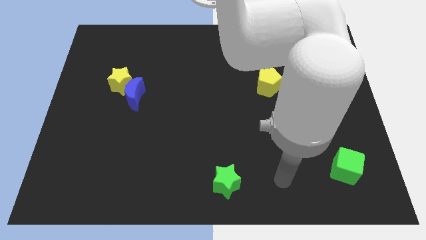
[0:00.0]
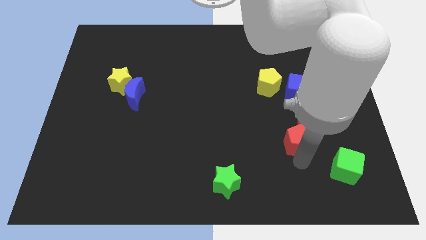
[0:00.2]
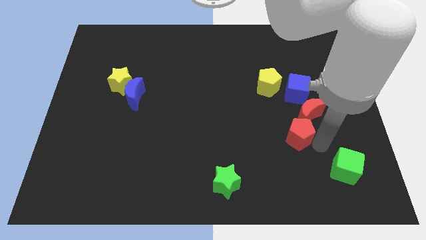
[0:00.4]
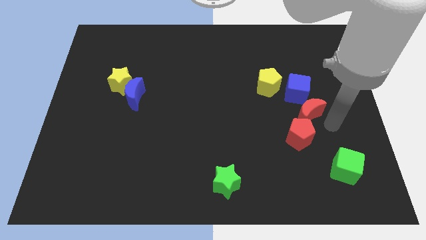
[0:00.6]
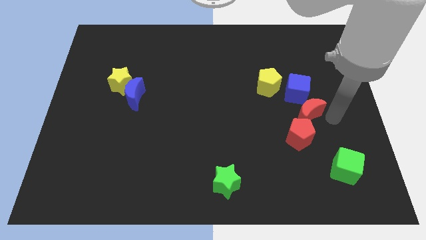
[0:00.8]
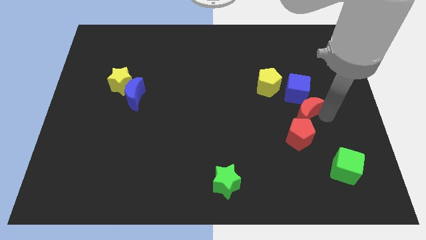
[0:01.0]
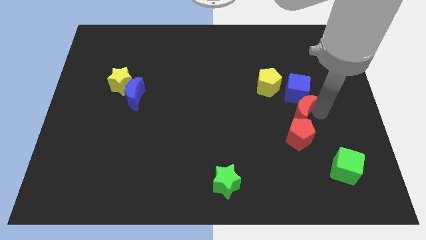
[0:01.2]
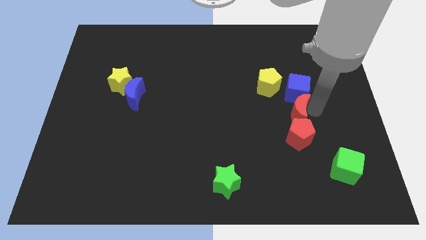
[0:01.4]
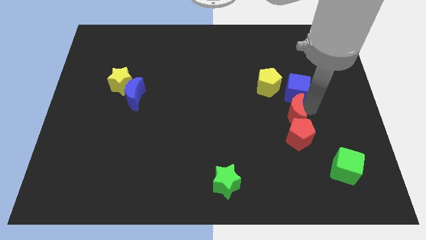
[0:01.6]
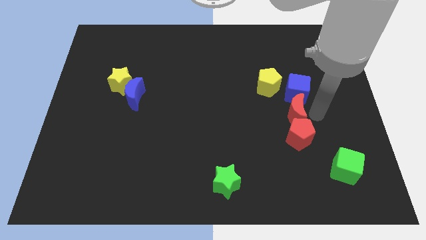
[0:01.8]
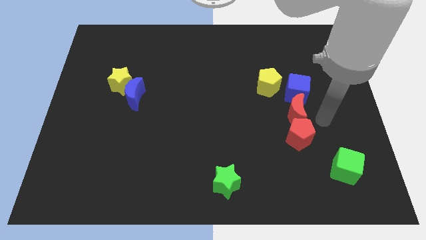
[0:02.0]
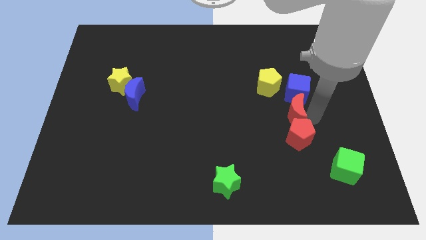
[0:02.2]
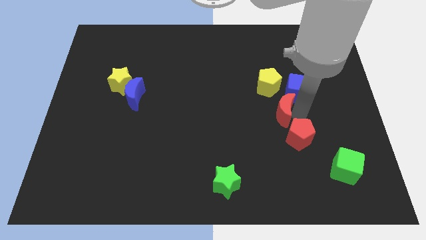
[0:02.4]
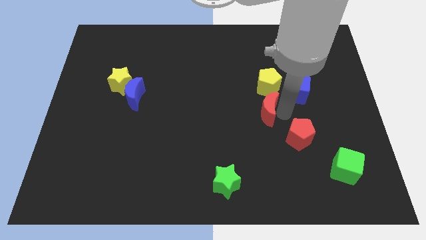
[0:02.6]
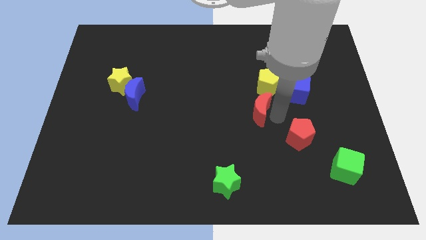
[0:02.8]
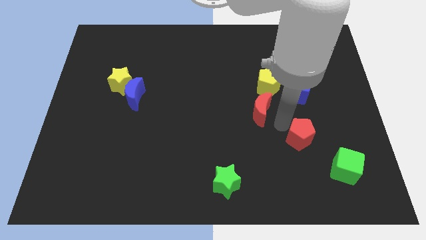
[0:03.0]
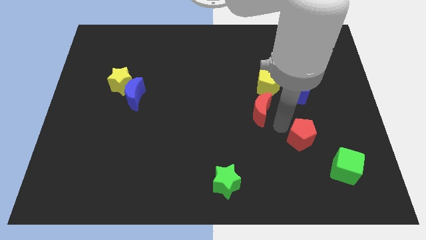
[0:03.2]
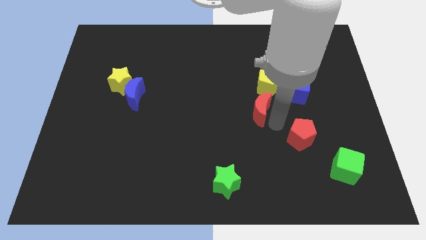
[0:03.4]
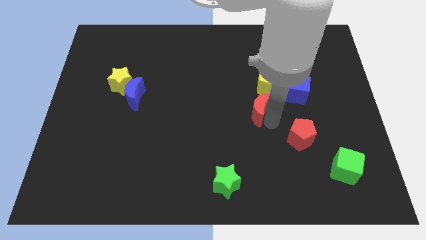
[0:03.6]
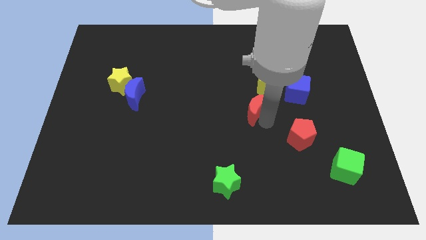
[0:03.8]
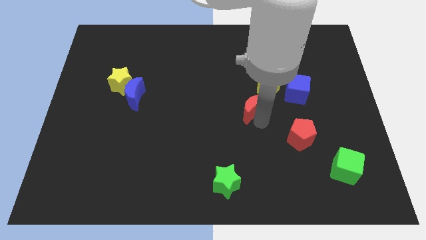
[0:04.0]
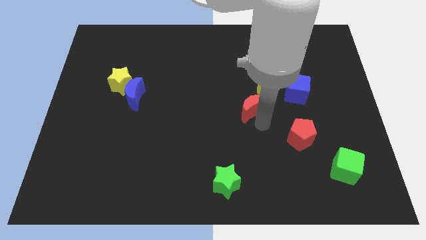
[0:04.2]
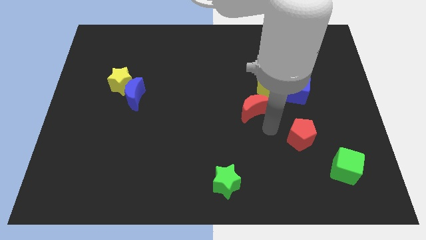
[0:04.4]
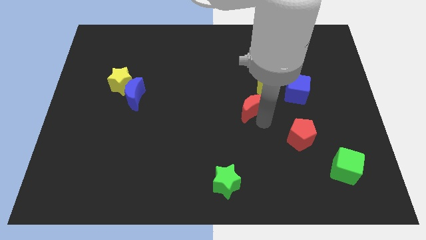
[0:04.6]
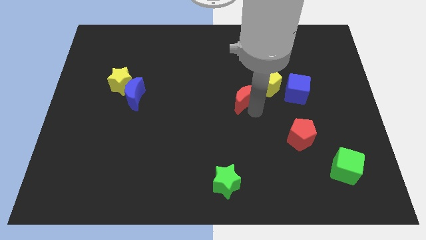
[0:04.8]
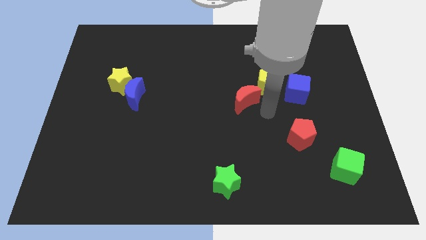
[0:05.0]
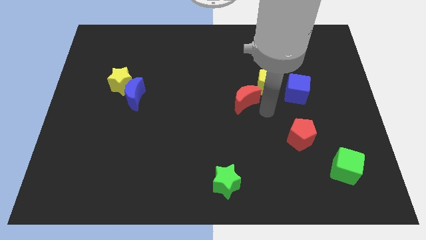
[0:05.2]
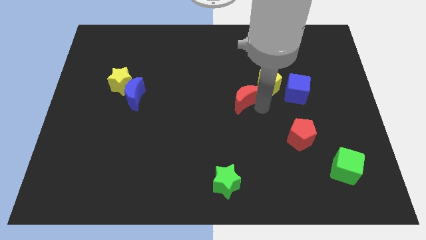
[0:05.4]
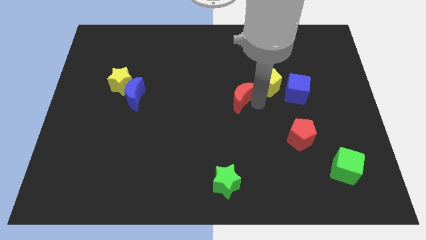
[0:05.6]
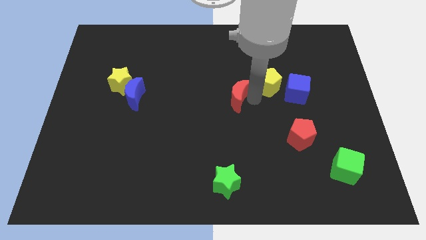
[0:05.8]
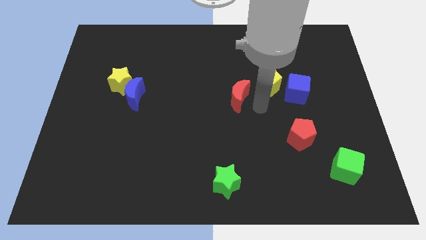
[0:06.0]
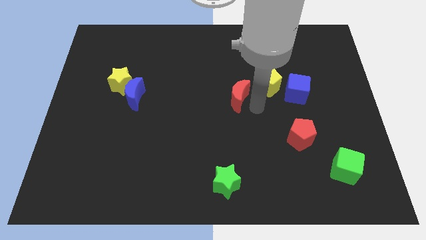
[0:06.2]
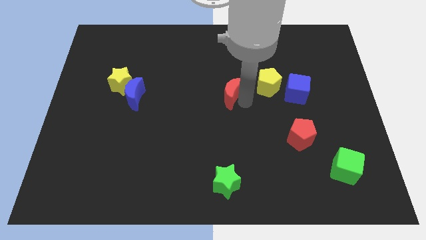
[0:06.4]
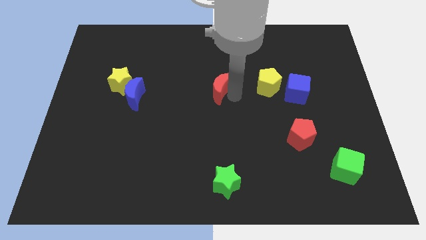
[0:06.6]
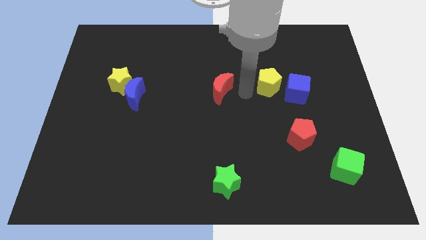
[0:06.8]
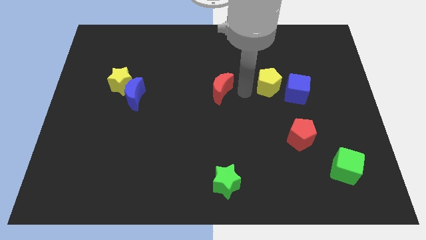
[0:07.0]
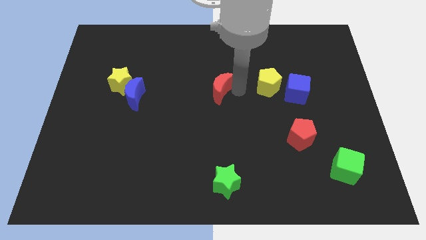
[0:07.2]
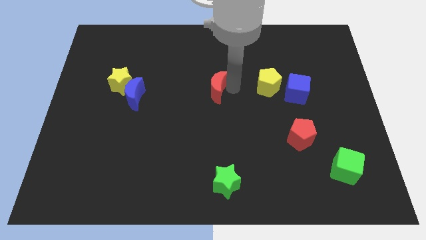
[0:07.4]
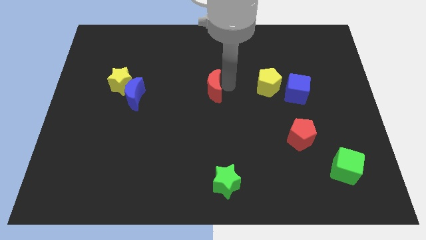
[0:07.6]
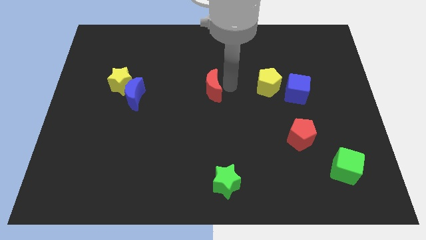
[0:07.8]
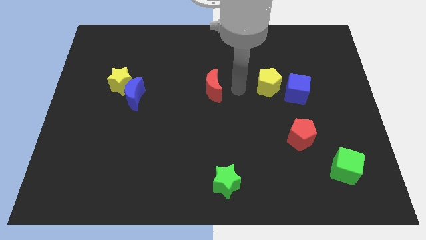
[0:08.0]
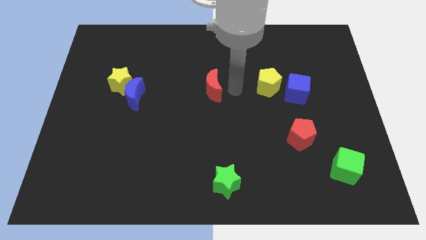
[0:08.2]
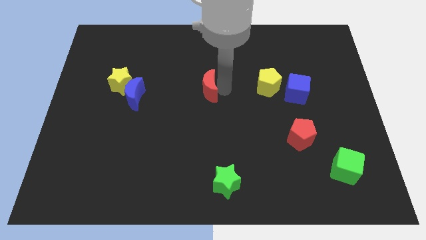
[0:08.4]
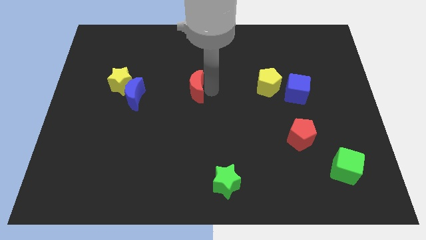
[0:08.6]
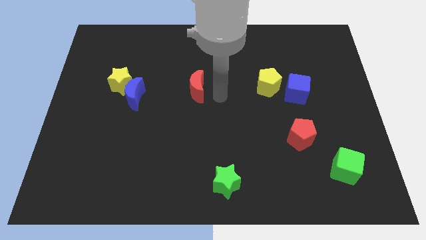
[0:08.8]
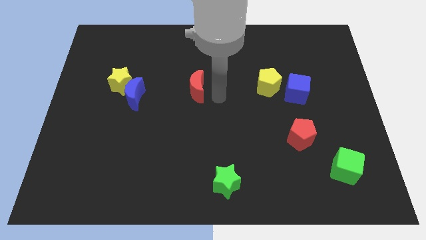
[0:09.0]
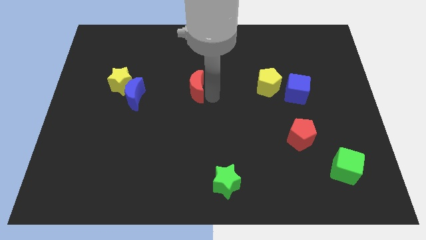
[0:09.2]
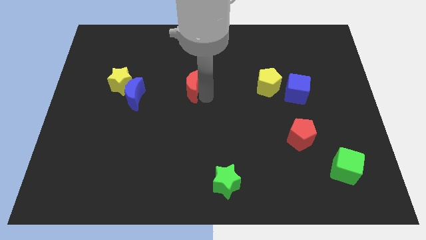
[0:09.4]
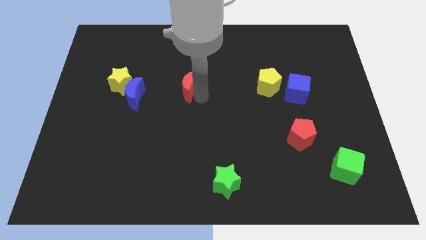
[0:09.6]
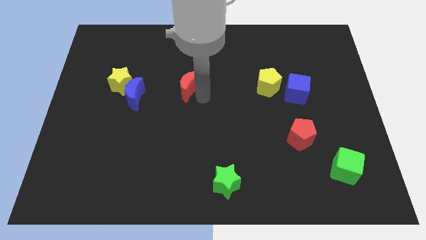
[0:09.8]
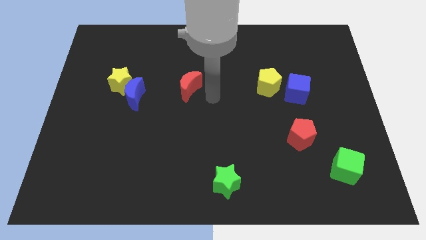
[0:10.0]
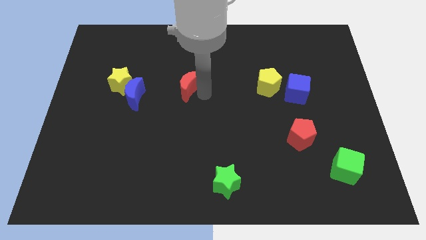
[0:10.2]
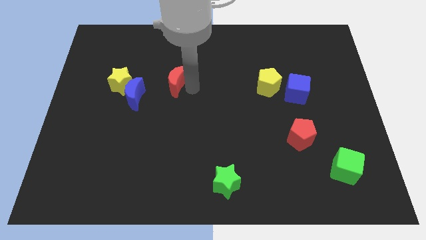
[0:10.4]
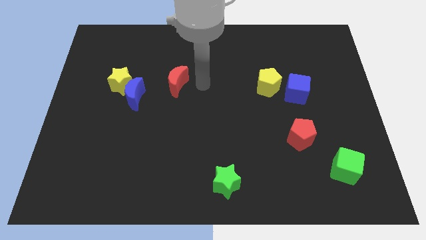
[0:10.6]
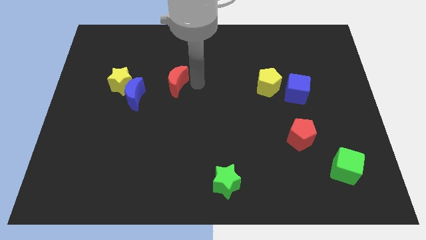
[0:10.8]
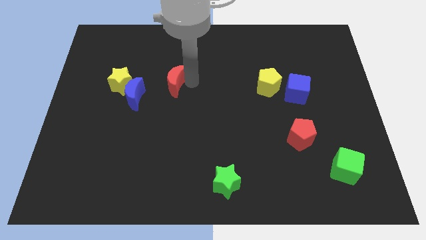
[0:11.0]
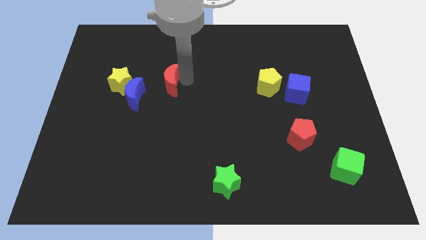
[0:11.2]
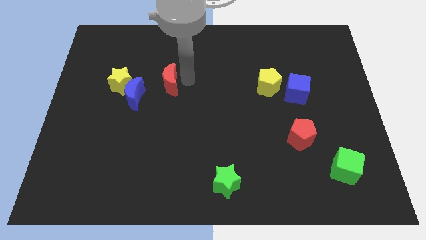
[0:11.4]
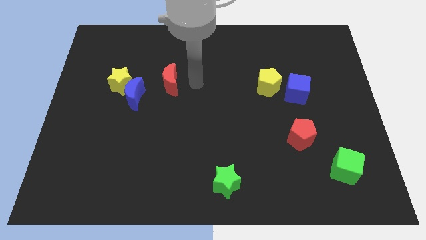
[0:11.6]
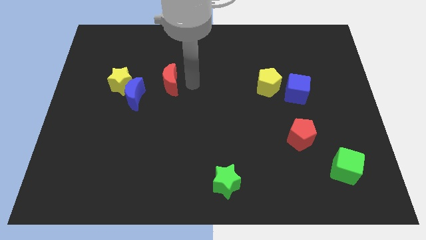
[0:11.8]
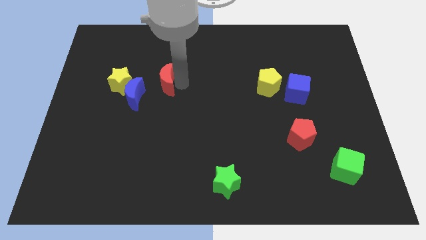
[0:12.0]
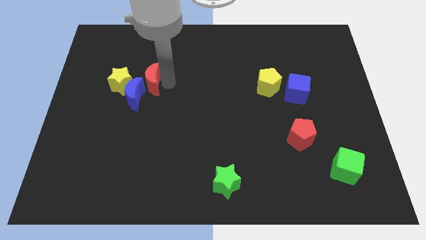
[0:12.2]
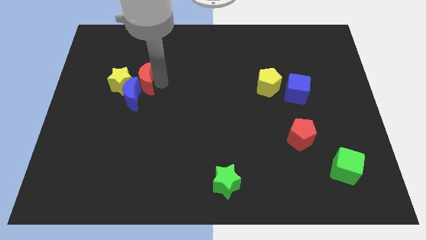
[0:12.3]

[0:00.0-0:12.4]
slide the red moon close to the yellow star

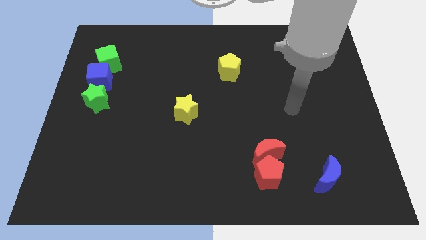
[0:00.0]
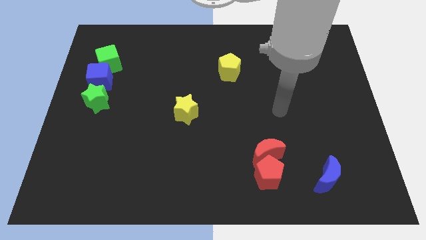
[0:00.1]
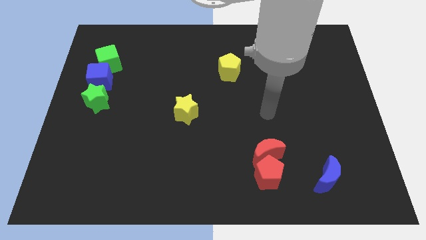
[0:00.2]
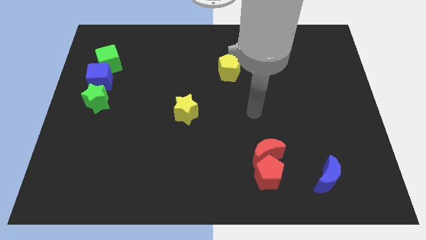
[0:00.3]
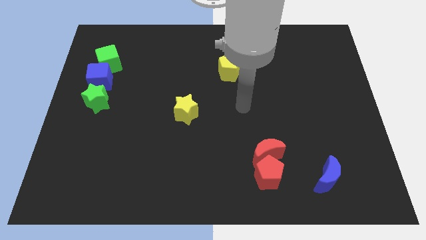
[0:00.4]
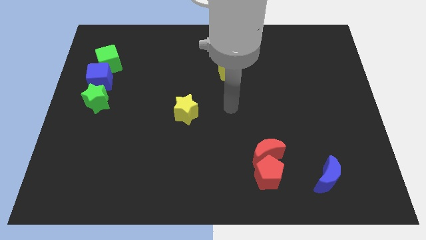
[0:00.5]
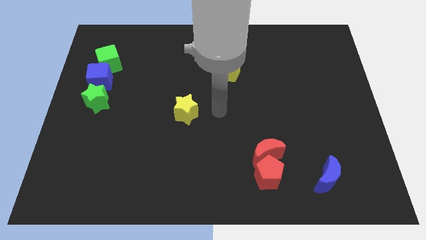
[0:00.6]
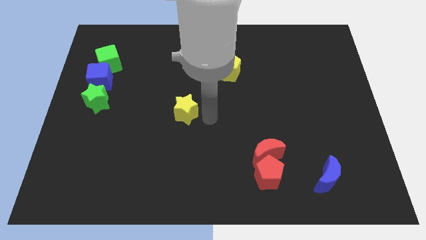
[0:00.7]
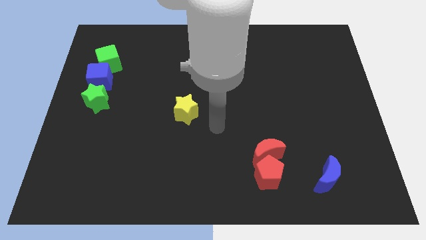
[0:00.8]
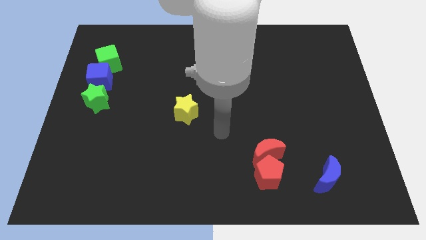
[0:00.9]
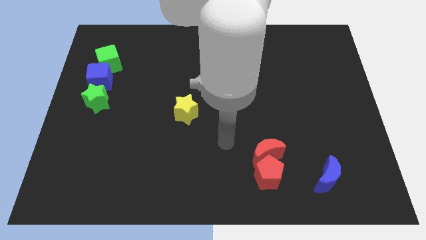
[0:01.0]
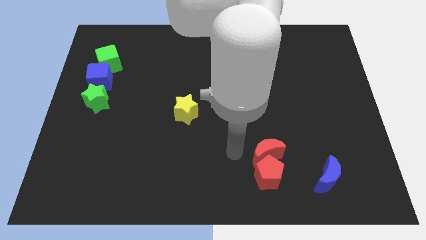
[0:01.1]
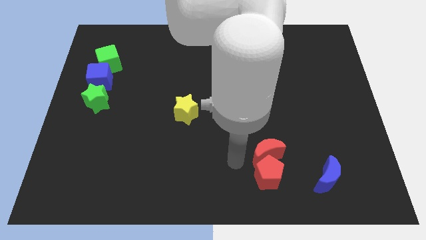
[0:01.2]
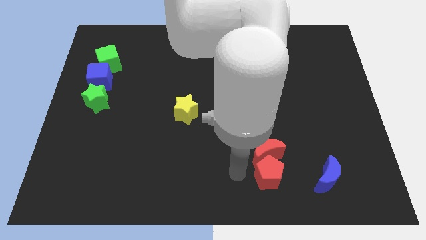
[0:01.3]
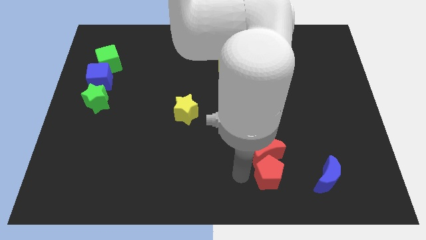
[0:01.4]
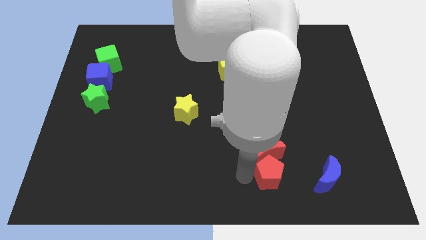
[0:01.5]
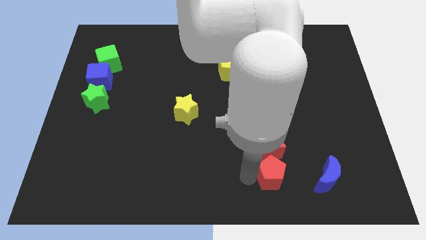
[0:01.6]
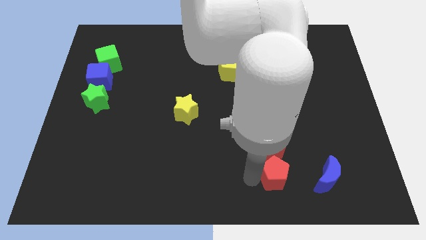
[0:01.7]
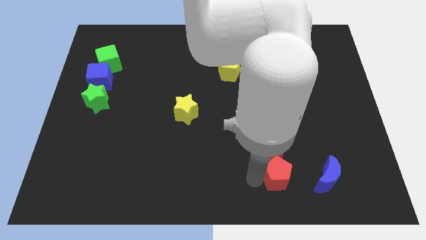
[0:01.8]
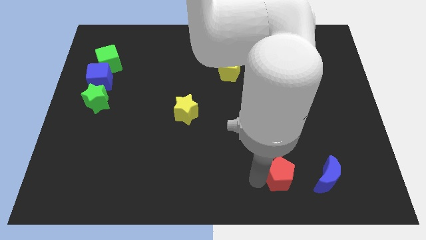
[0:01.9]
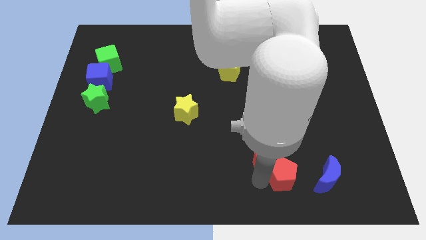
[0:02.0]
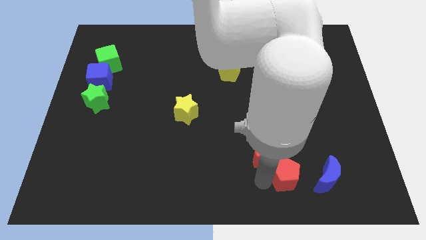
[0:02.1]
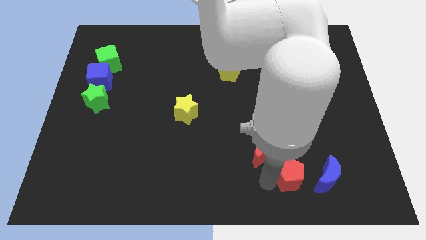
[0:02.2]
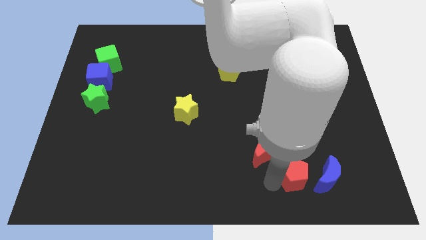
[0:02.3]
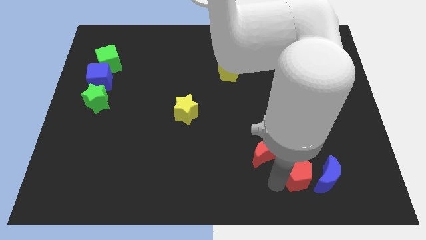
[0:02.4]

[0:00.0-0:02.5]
push the red pentagon towards the blue moon
